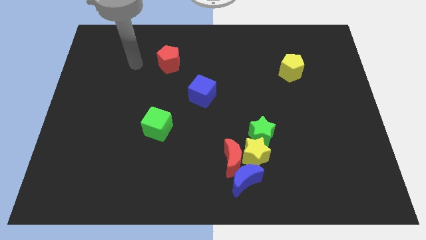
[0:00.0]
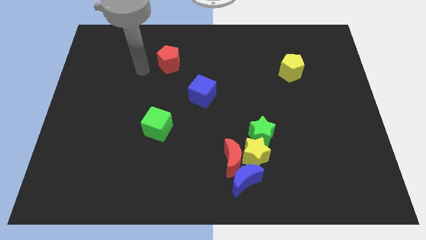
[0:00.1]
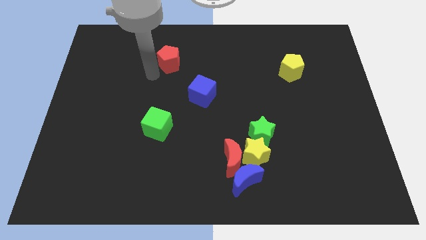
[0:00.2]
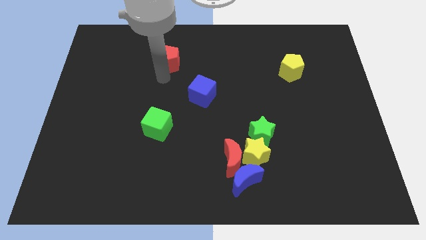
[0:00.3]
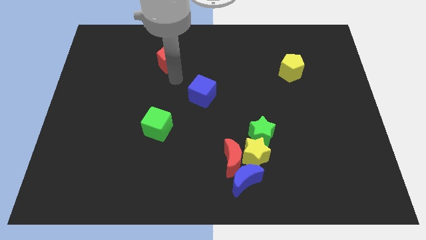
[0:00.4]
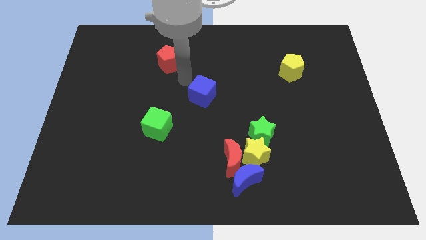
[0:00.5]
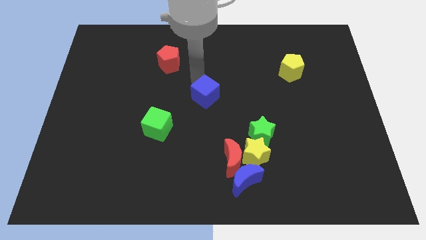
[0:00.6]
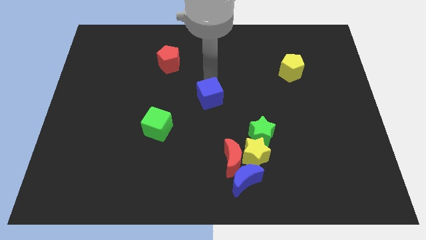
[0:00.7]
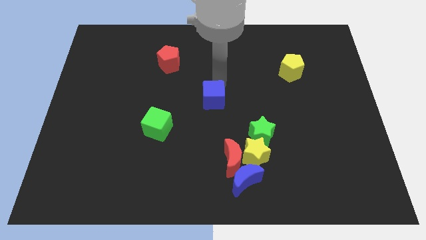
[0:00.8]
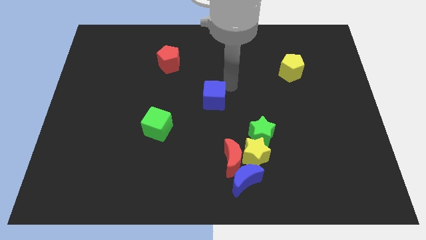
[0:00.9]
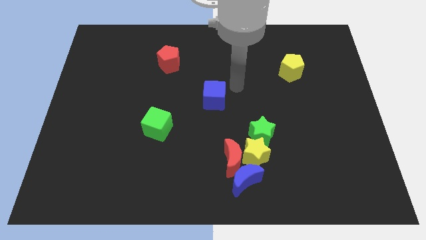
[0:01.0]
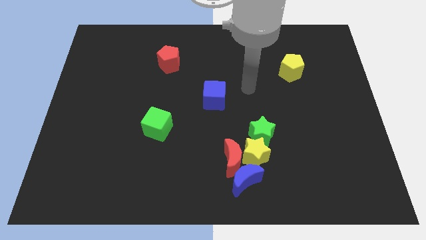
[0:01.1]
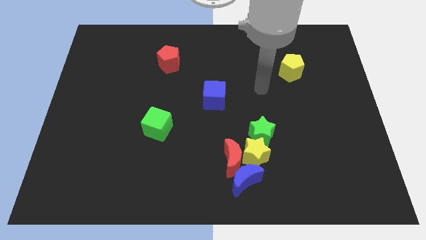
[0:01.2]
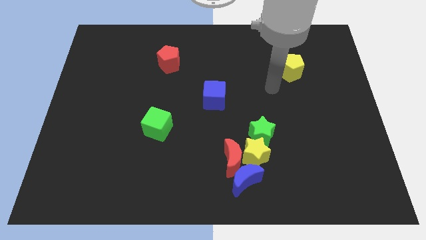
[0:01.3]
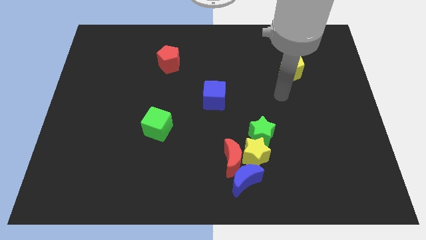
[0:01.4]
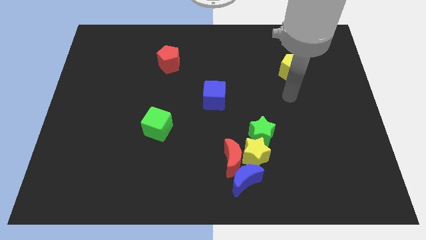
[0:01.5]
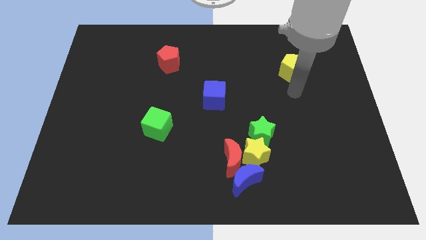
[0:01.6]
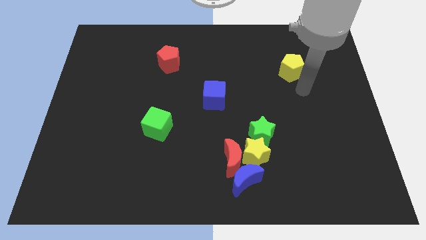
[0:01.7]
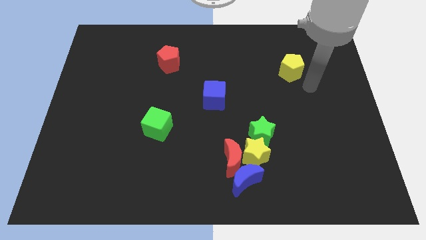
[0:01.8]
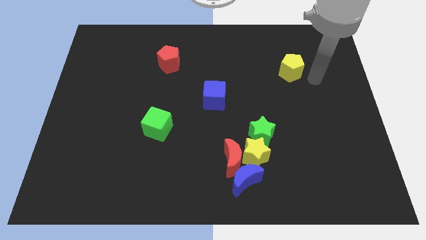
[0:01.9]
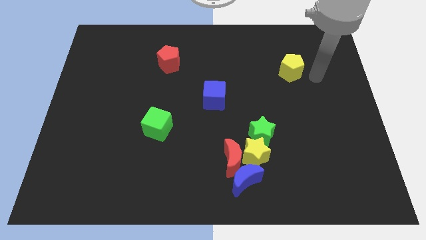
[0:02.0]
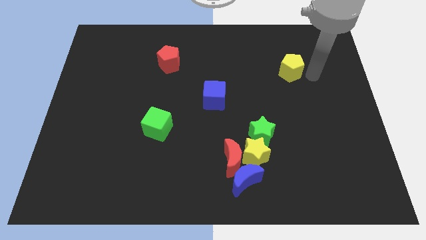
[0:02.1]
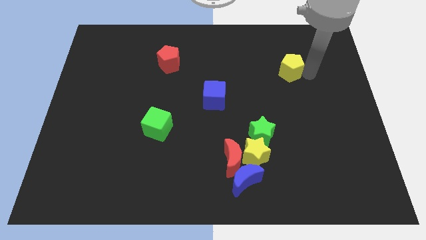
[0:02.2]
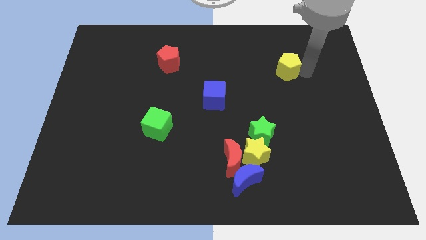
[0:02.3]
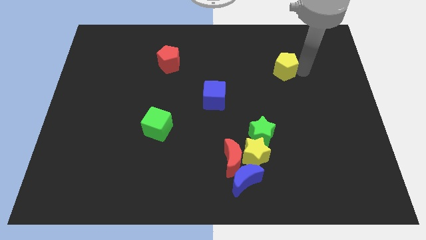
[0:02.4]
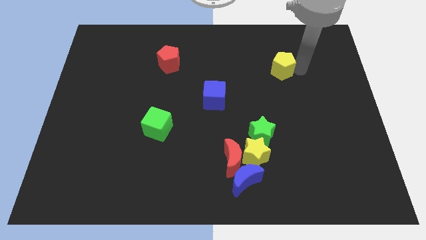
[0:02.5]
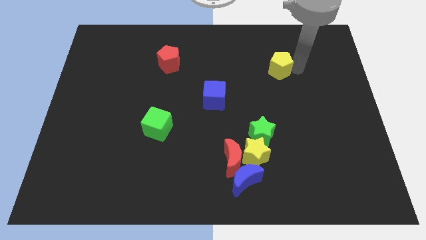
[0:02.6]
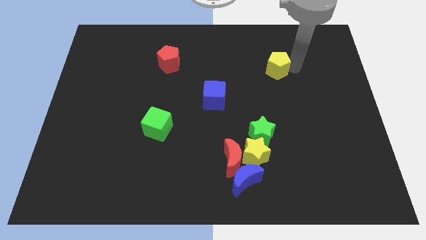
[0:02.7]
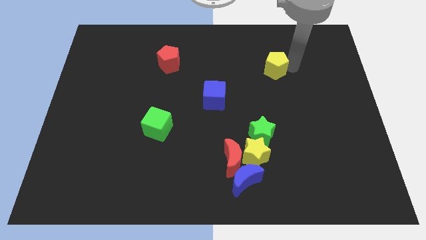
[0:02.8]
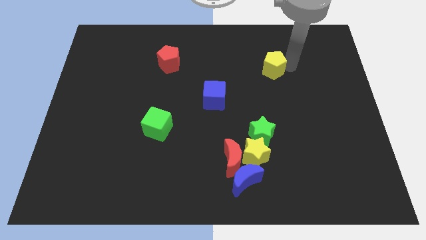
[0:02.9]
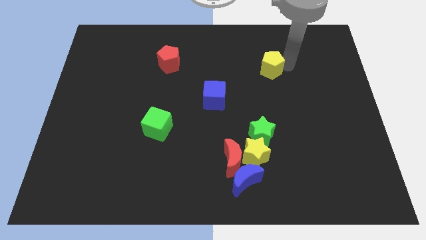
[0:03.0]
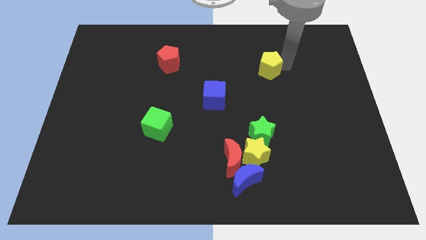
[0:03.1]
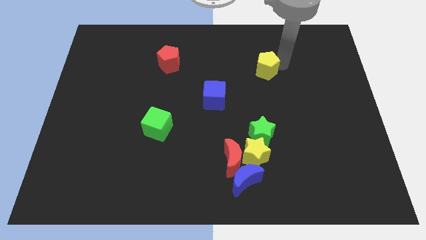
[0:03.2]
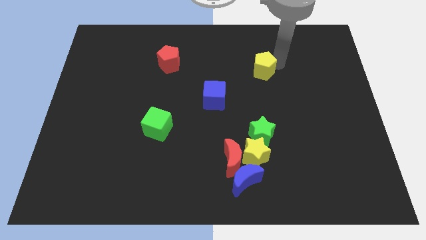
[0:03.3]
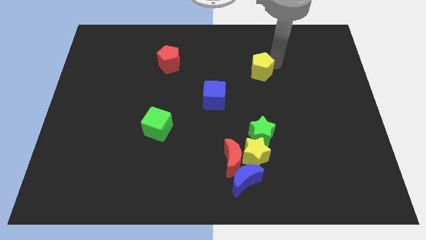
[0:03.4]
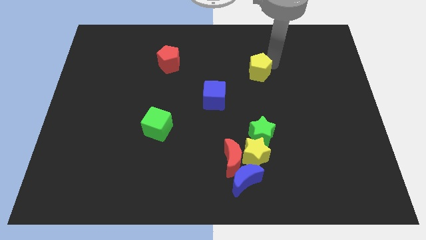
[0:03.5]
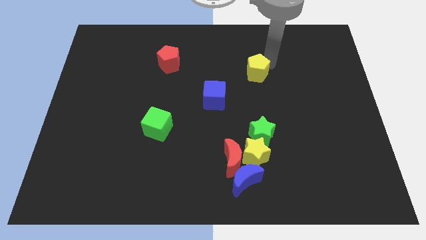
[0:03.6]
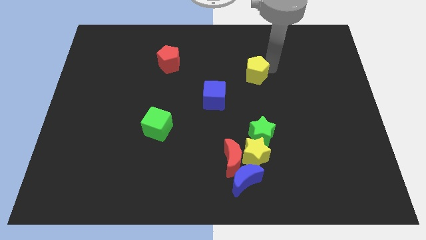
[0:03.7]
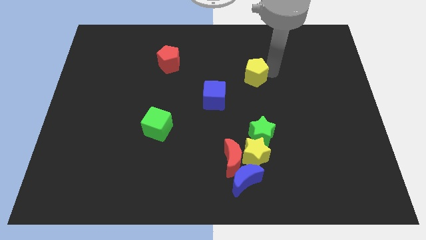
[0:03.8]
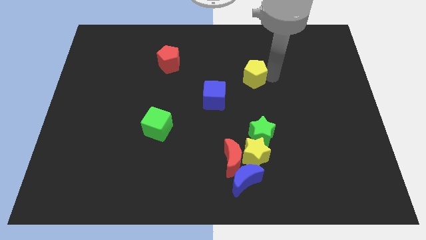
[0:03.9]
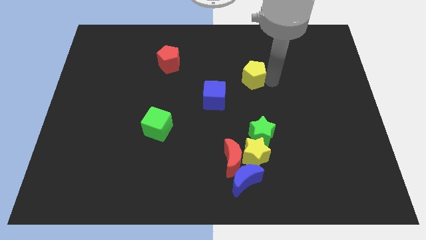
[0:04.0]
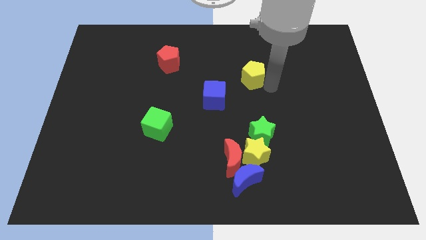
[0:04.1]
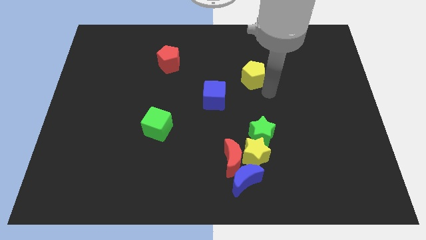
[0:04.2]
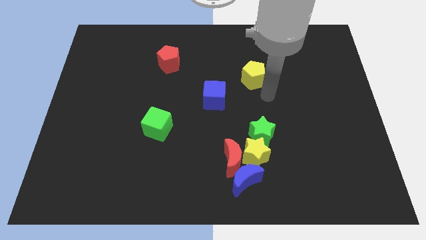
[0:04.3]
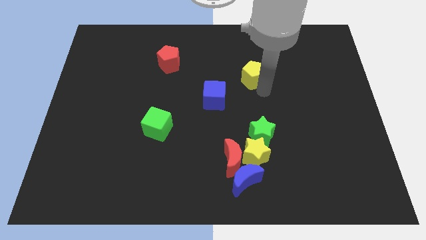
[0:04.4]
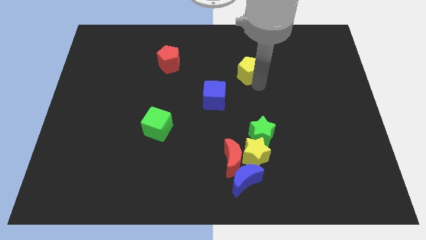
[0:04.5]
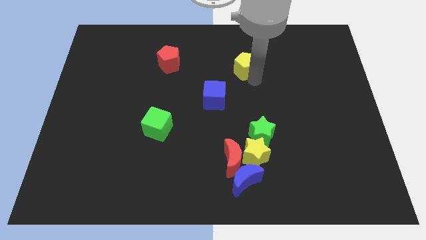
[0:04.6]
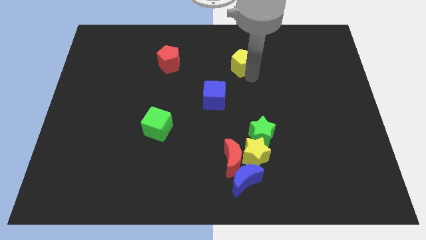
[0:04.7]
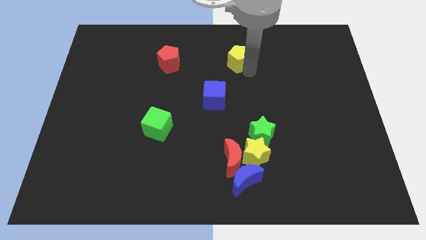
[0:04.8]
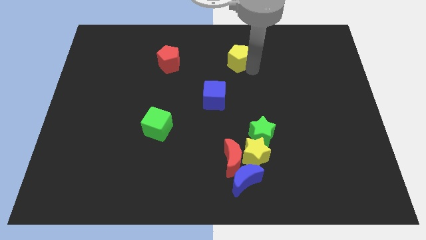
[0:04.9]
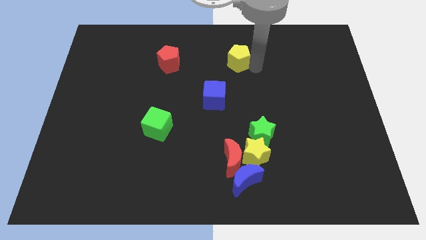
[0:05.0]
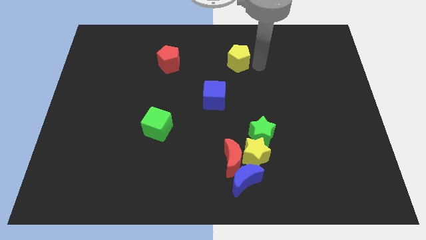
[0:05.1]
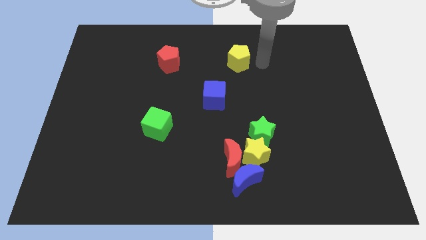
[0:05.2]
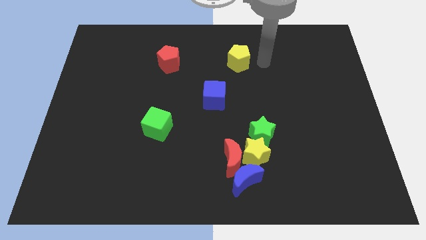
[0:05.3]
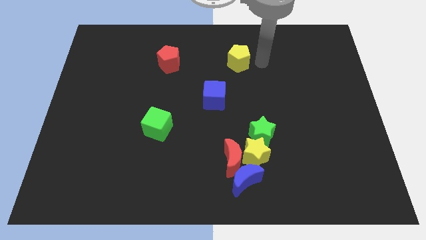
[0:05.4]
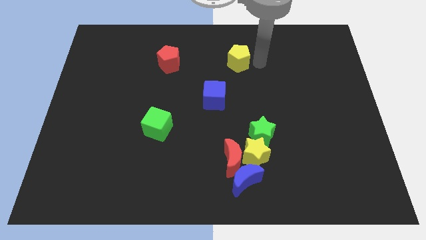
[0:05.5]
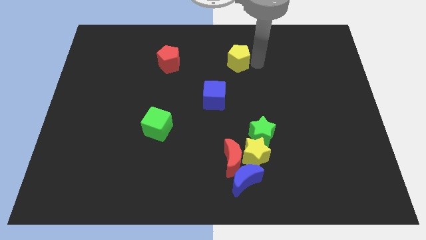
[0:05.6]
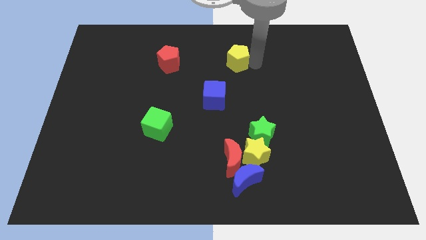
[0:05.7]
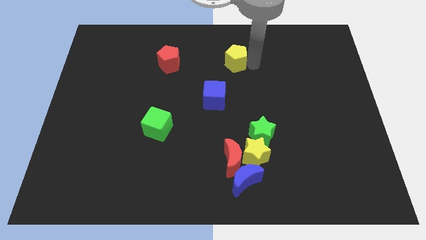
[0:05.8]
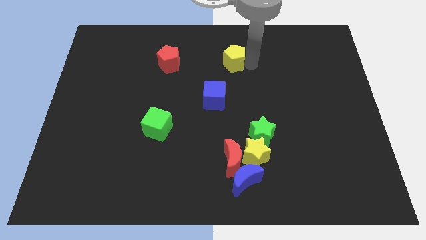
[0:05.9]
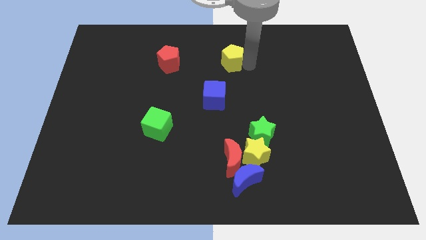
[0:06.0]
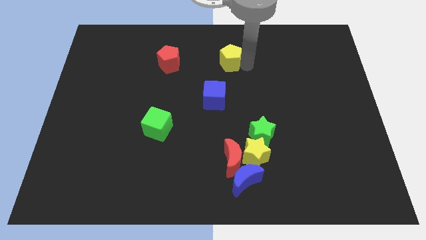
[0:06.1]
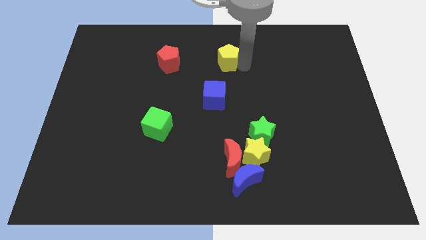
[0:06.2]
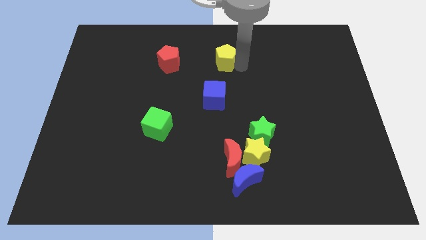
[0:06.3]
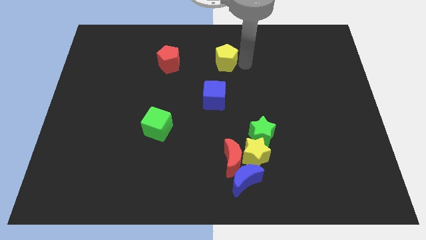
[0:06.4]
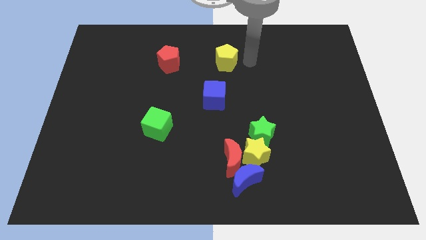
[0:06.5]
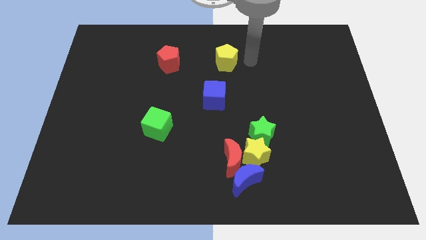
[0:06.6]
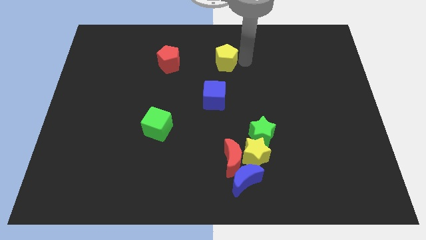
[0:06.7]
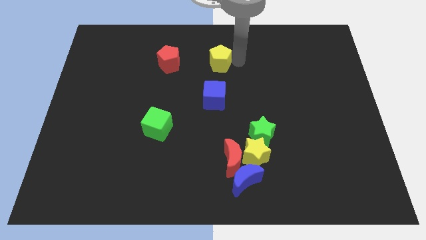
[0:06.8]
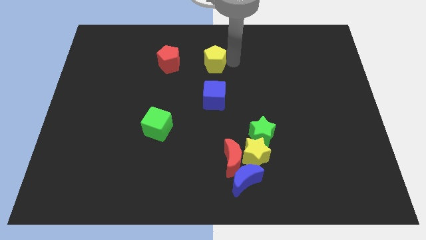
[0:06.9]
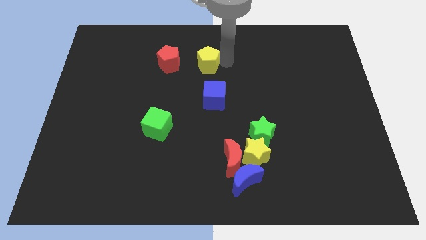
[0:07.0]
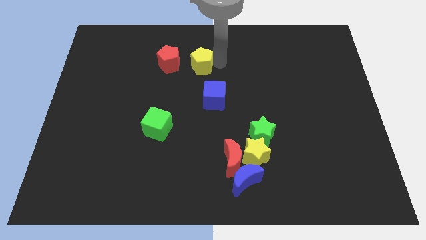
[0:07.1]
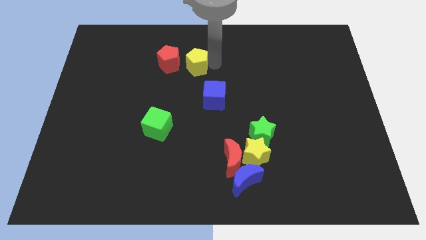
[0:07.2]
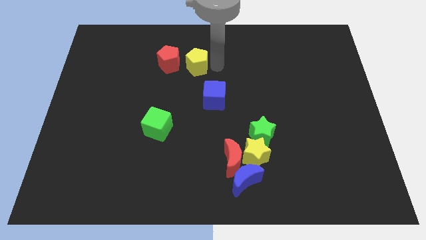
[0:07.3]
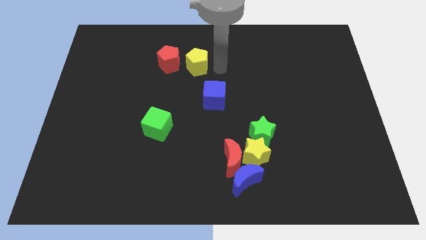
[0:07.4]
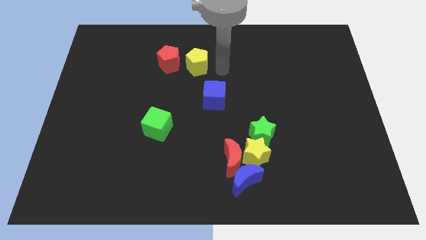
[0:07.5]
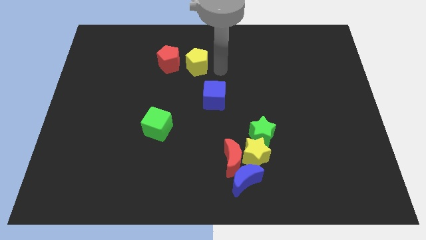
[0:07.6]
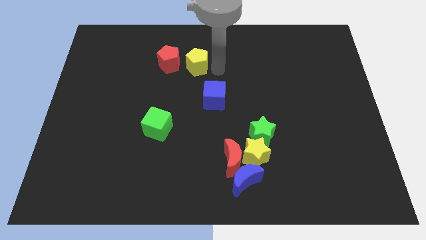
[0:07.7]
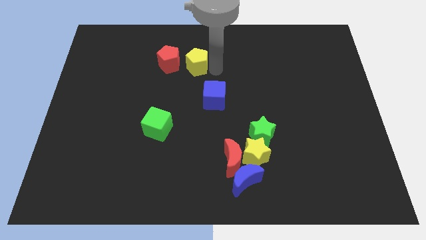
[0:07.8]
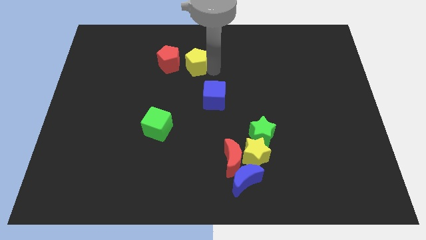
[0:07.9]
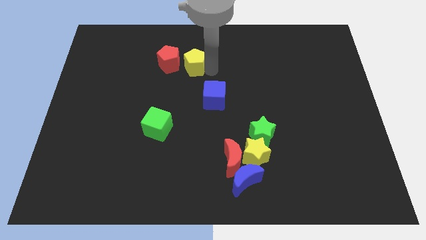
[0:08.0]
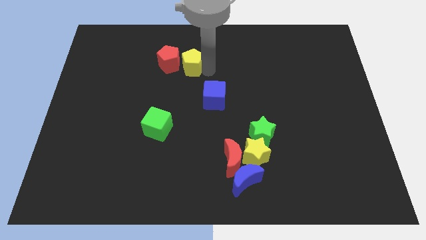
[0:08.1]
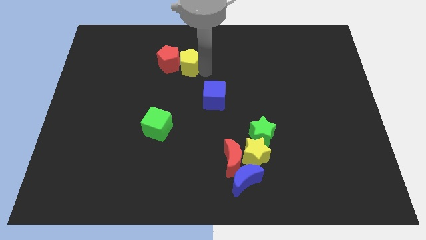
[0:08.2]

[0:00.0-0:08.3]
move the yellow pentagon to the red pentagon
